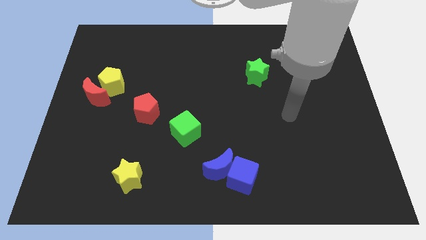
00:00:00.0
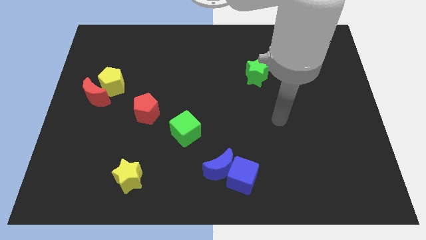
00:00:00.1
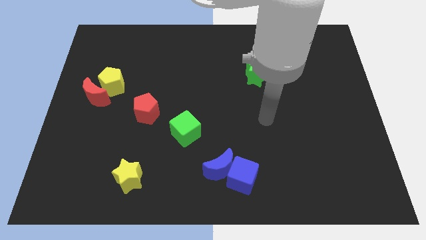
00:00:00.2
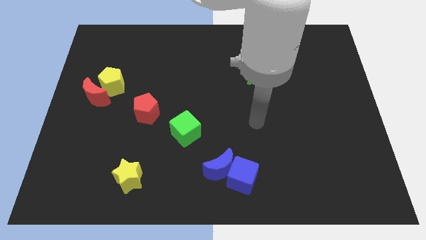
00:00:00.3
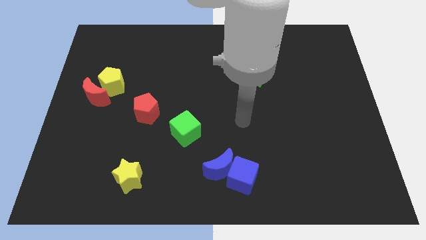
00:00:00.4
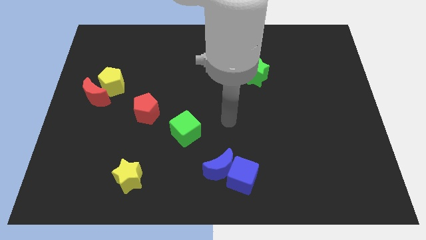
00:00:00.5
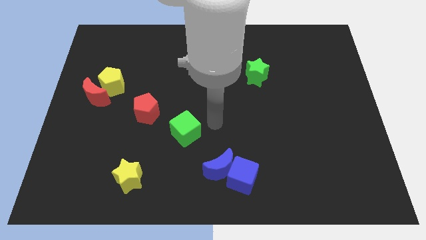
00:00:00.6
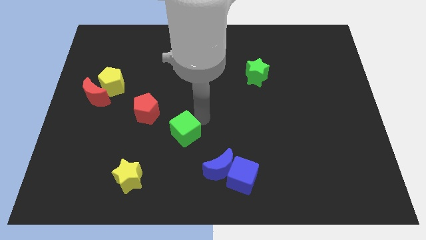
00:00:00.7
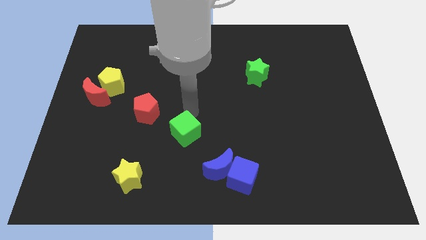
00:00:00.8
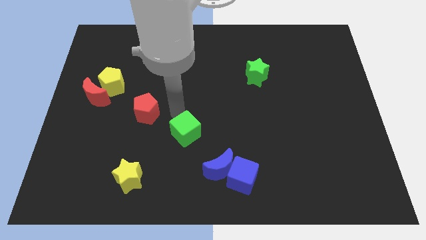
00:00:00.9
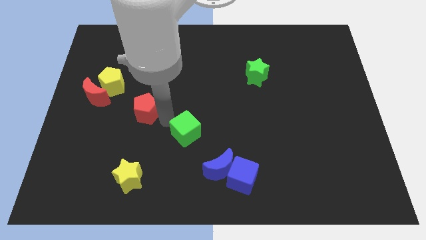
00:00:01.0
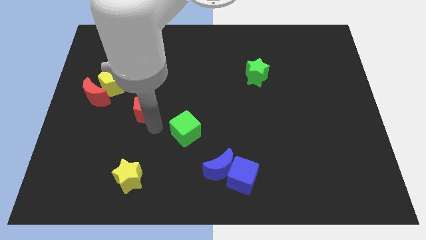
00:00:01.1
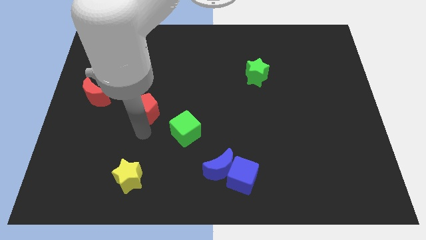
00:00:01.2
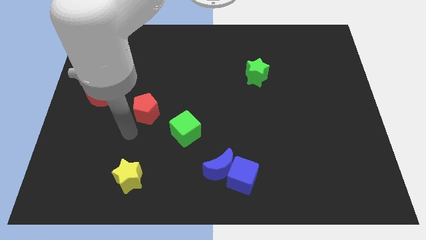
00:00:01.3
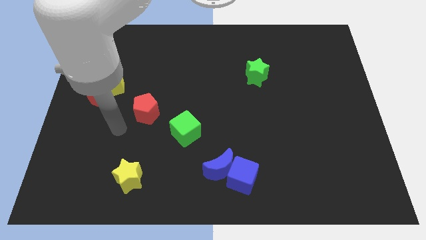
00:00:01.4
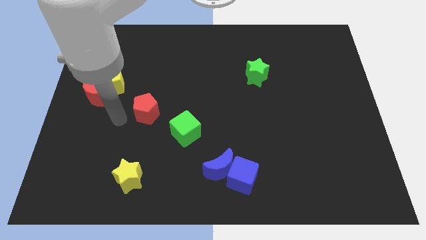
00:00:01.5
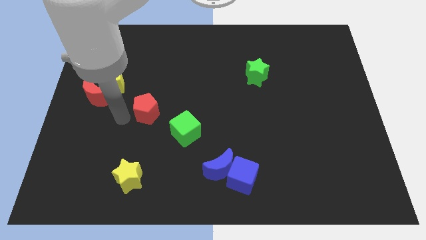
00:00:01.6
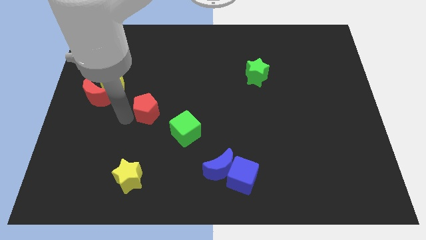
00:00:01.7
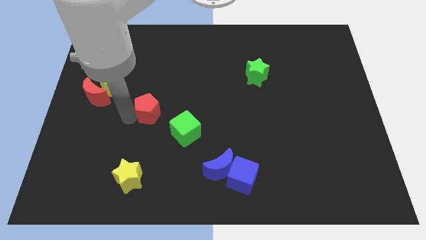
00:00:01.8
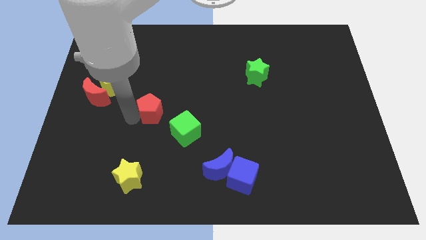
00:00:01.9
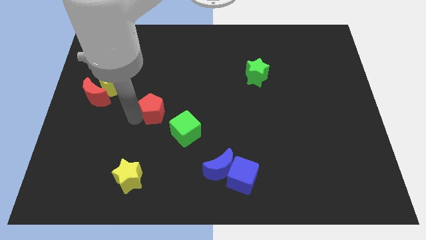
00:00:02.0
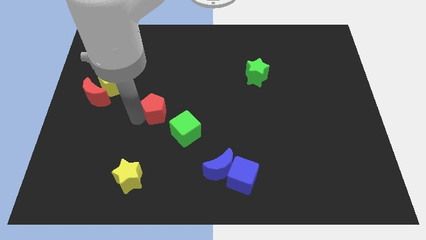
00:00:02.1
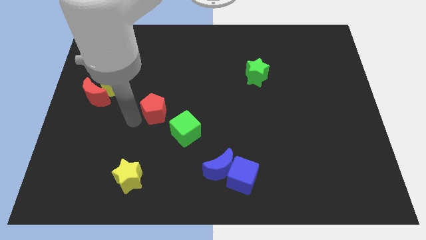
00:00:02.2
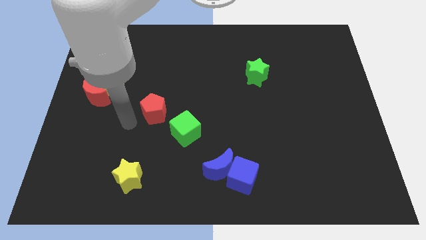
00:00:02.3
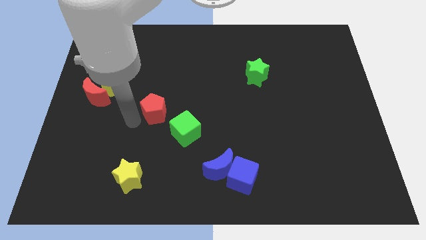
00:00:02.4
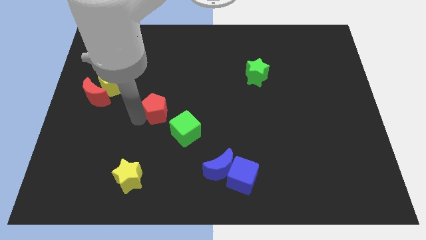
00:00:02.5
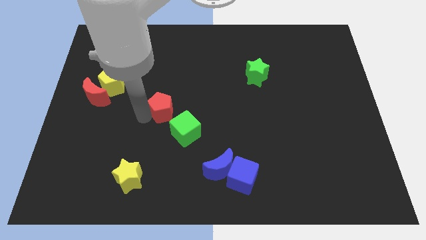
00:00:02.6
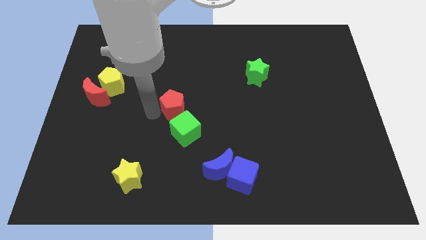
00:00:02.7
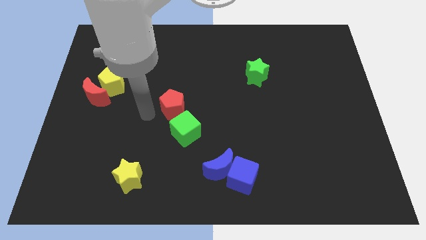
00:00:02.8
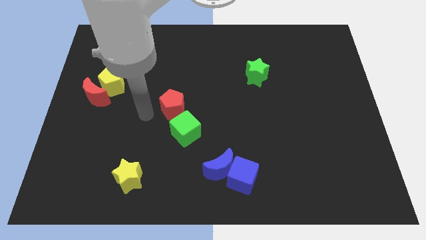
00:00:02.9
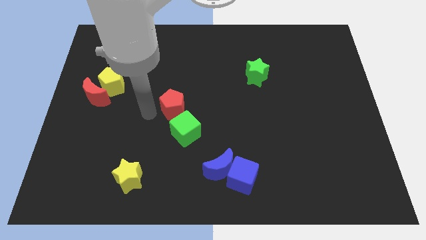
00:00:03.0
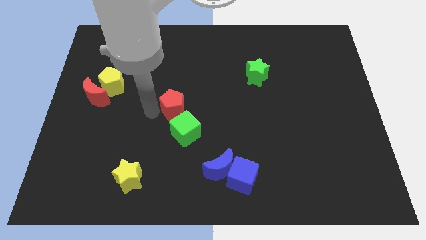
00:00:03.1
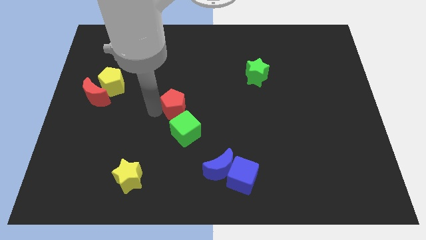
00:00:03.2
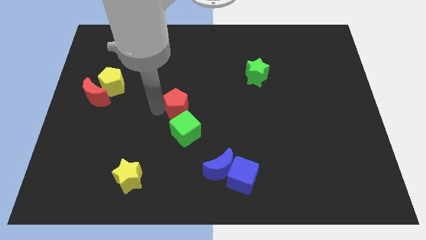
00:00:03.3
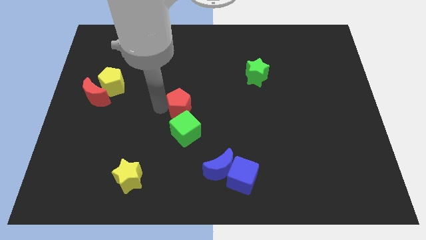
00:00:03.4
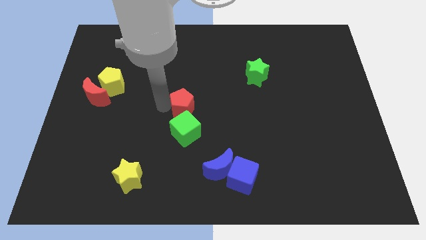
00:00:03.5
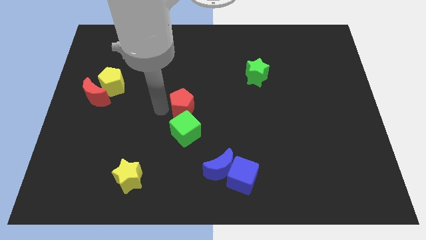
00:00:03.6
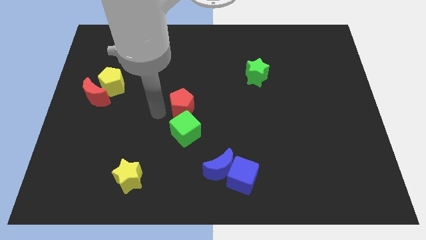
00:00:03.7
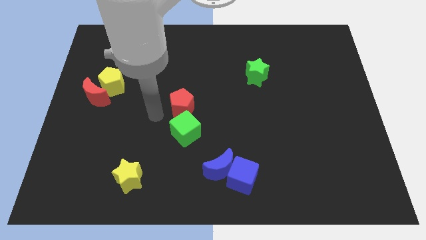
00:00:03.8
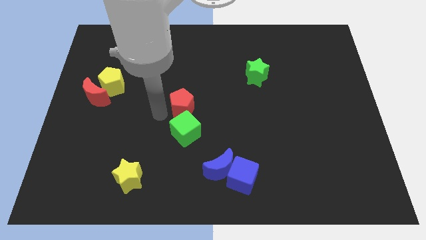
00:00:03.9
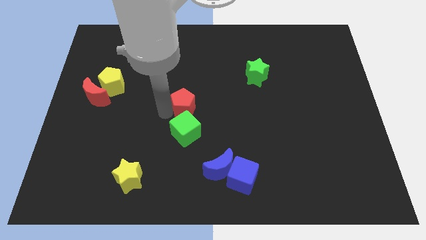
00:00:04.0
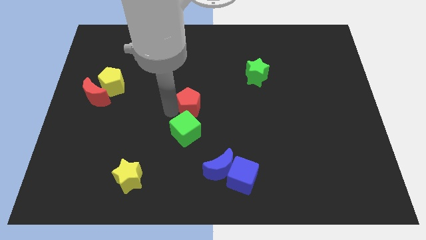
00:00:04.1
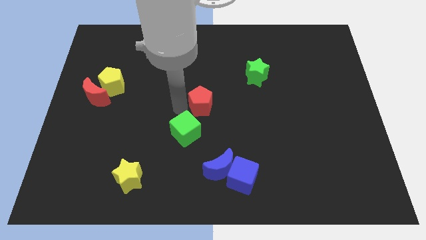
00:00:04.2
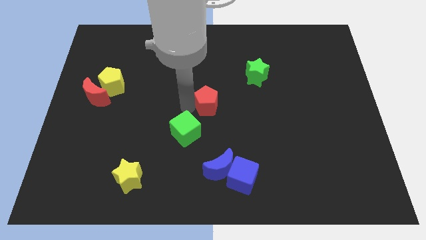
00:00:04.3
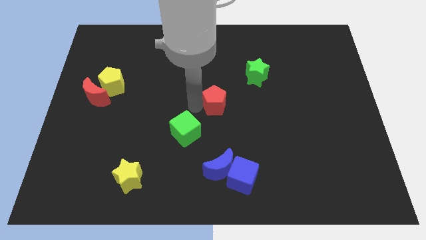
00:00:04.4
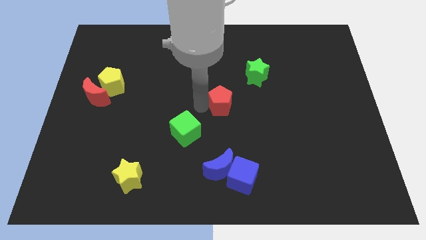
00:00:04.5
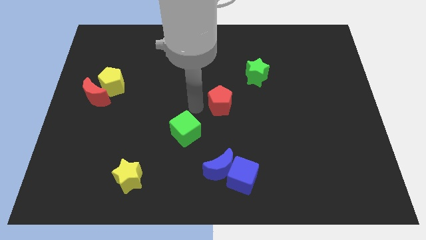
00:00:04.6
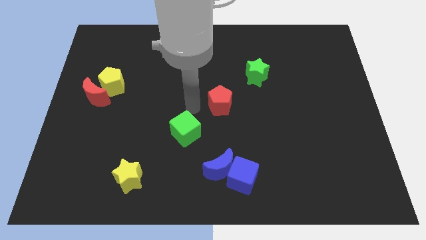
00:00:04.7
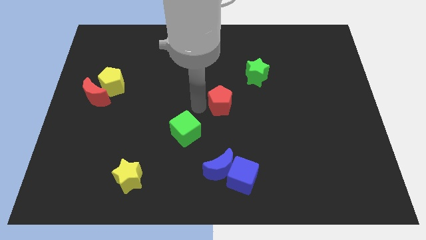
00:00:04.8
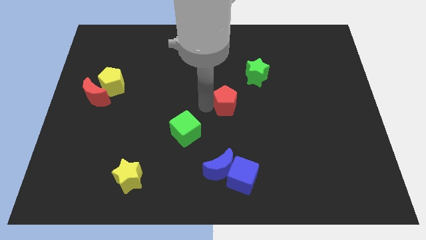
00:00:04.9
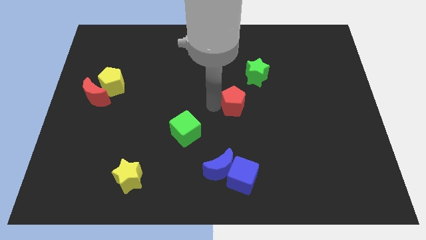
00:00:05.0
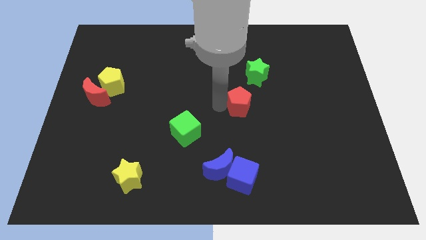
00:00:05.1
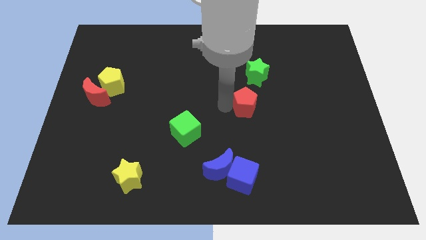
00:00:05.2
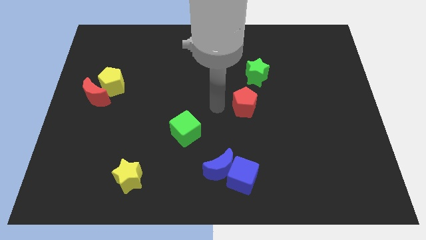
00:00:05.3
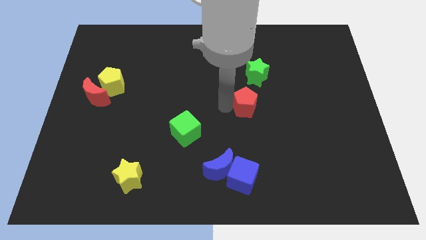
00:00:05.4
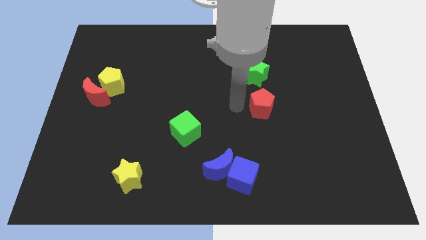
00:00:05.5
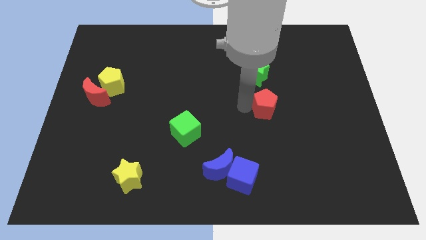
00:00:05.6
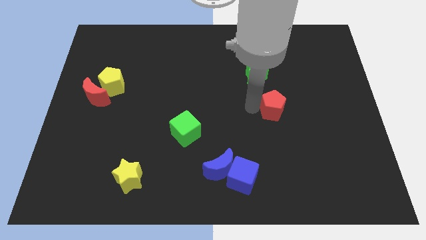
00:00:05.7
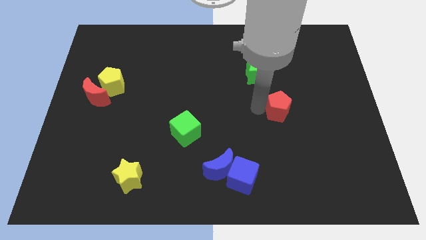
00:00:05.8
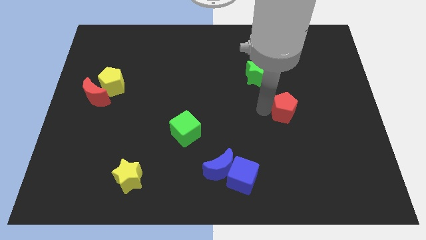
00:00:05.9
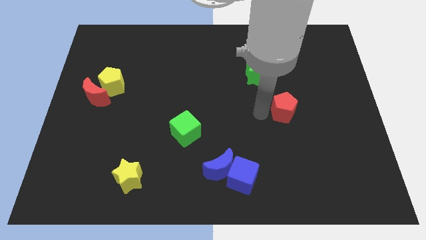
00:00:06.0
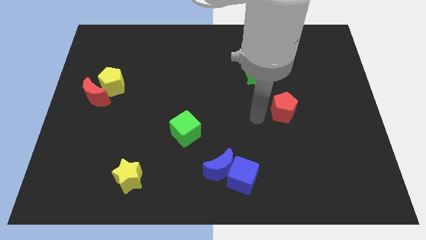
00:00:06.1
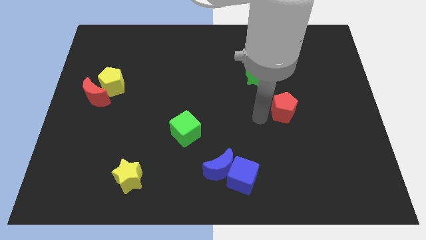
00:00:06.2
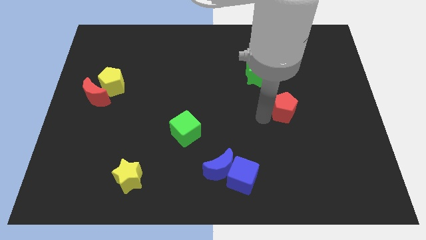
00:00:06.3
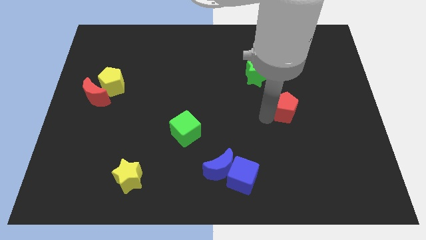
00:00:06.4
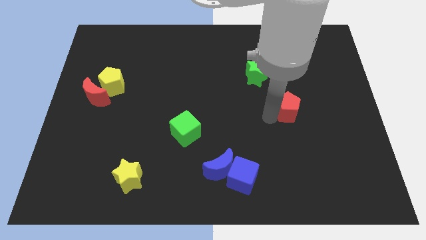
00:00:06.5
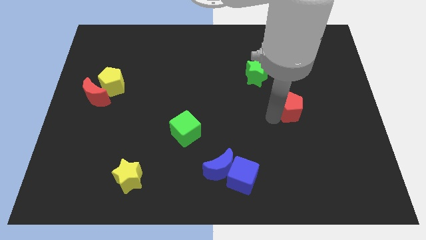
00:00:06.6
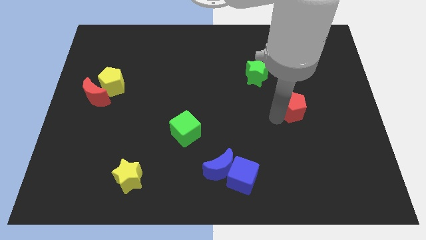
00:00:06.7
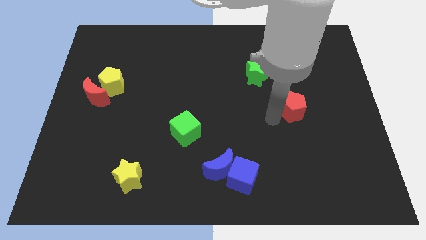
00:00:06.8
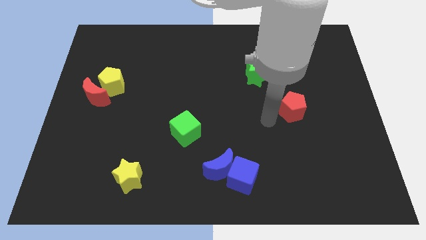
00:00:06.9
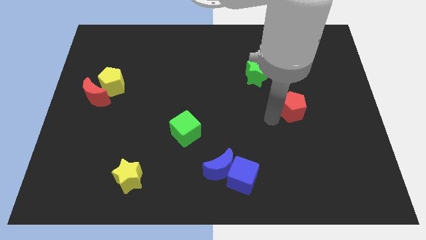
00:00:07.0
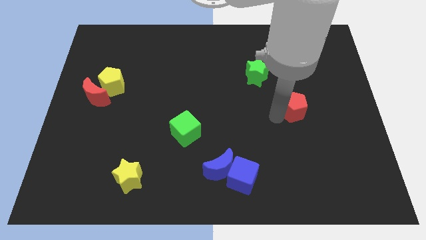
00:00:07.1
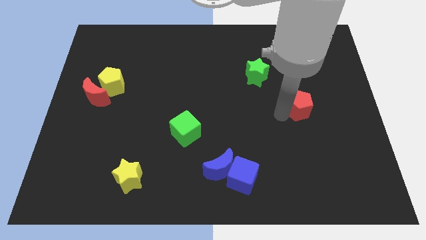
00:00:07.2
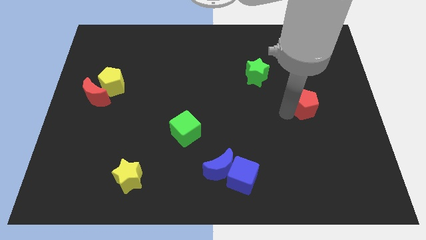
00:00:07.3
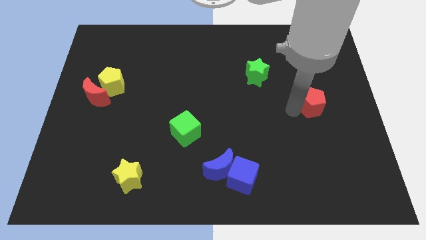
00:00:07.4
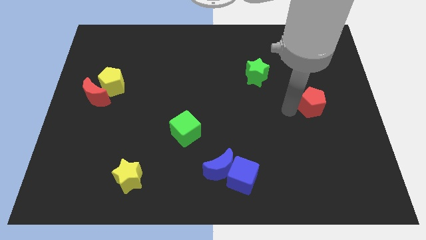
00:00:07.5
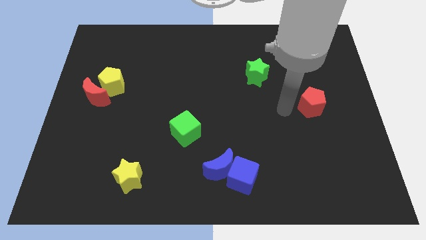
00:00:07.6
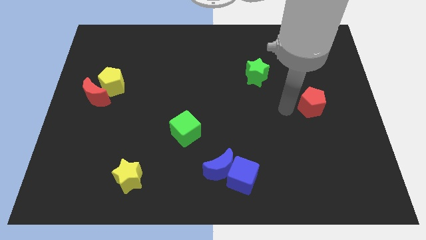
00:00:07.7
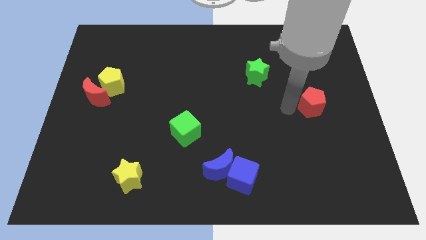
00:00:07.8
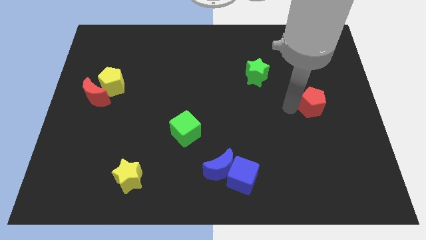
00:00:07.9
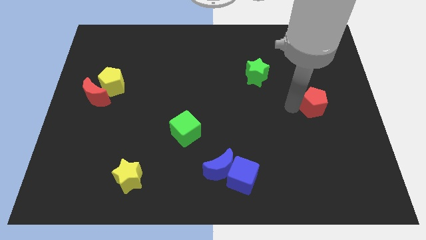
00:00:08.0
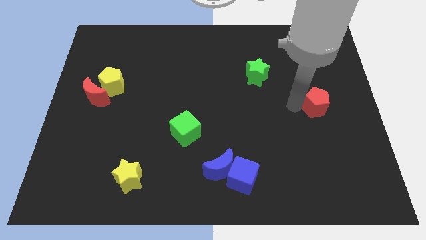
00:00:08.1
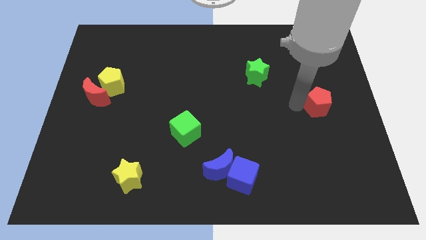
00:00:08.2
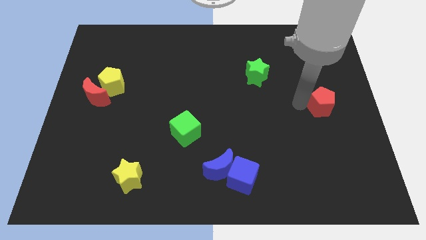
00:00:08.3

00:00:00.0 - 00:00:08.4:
put the red pentagon to the right side
